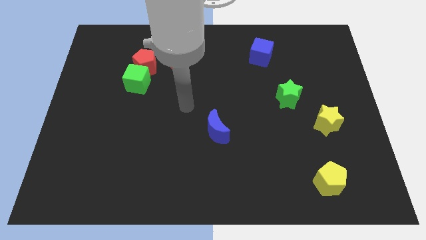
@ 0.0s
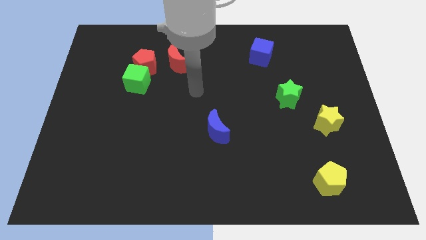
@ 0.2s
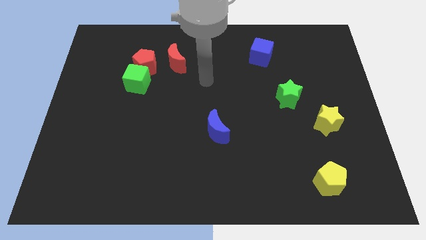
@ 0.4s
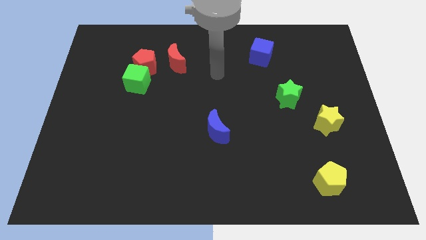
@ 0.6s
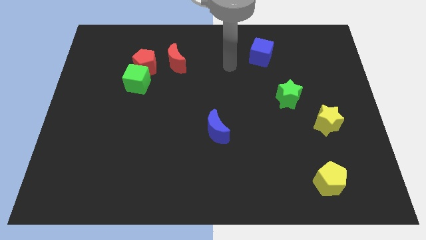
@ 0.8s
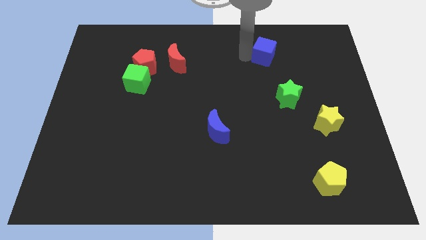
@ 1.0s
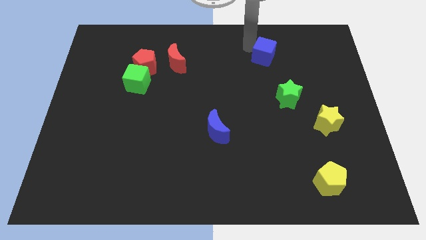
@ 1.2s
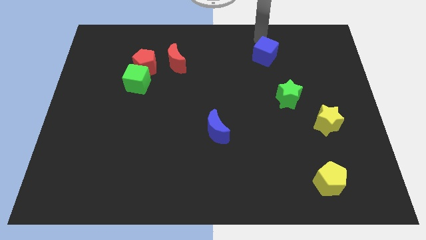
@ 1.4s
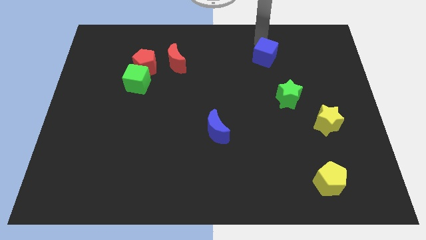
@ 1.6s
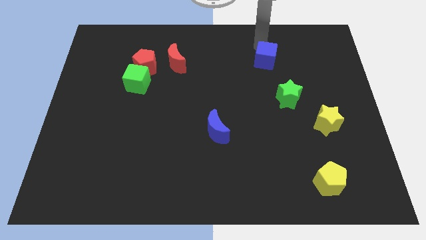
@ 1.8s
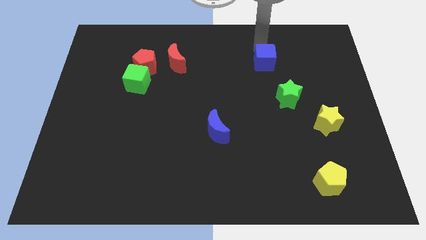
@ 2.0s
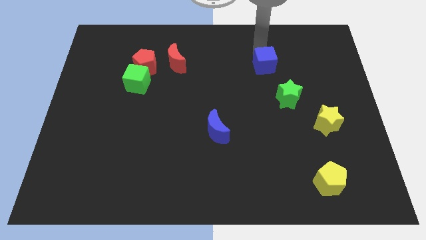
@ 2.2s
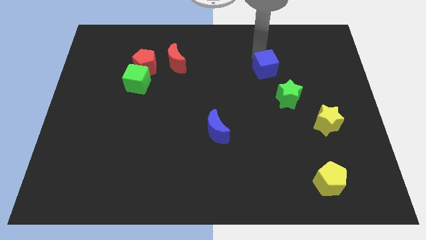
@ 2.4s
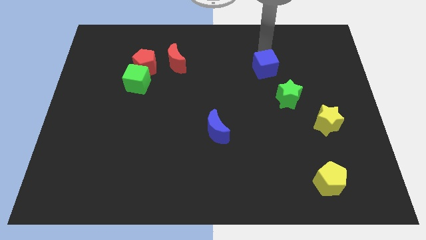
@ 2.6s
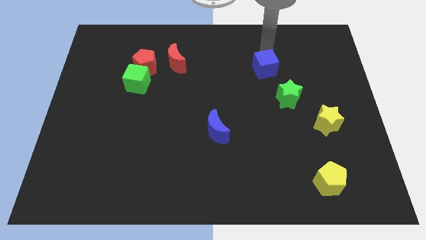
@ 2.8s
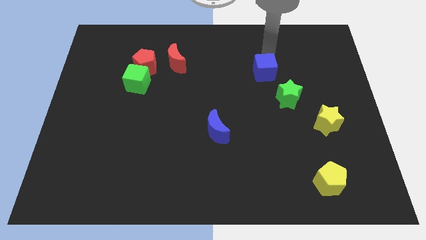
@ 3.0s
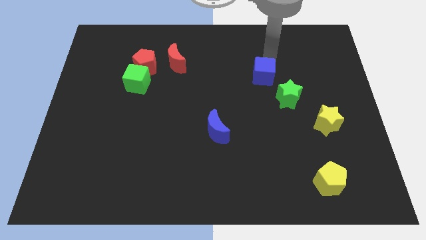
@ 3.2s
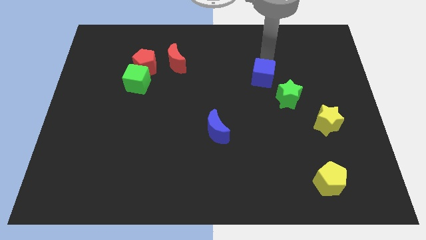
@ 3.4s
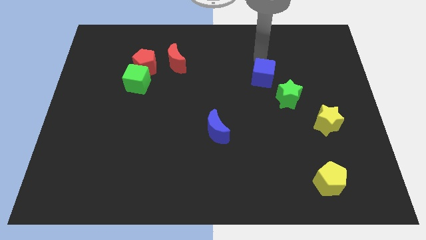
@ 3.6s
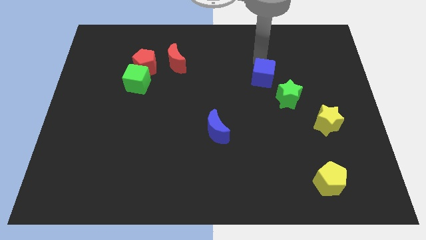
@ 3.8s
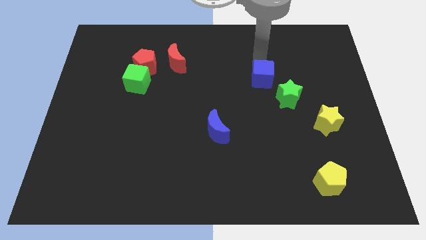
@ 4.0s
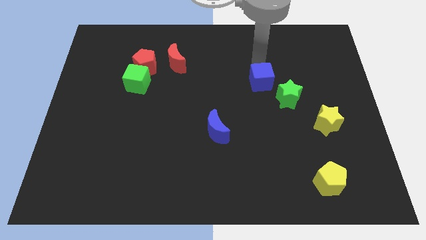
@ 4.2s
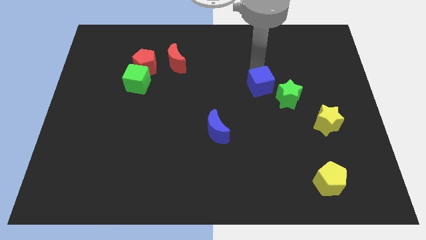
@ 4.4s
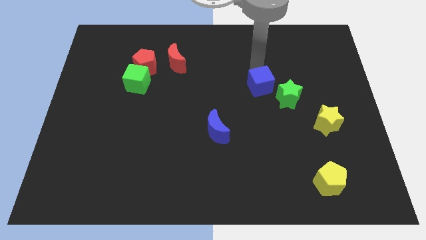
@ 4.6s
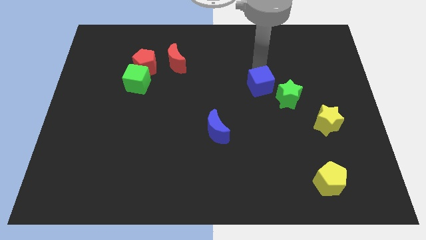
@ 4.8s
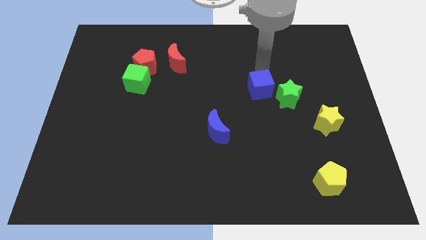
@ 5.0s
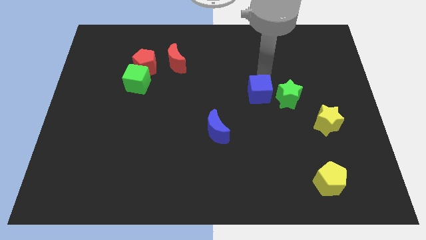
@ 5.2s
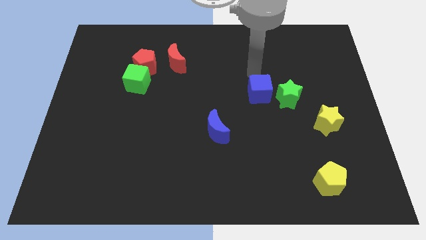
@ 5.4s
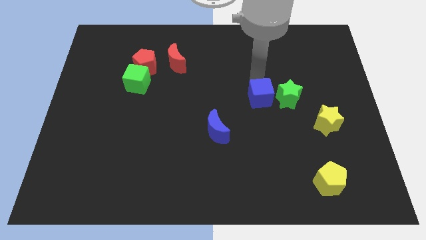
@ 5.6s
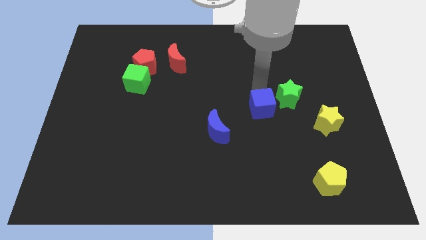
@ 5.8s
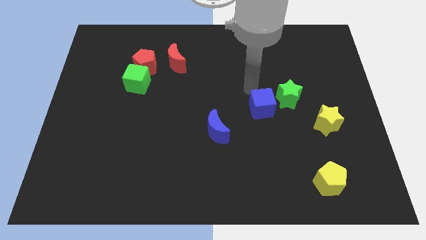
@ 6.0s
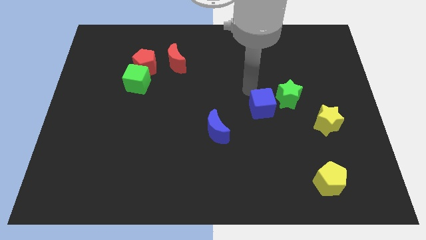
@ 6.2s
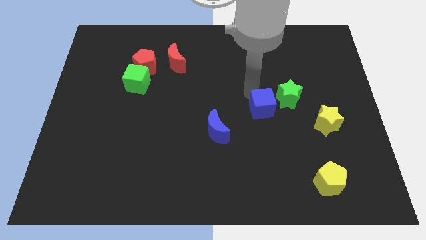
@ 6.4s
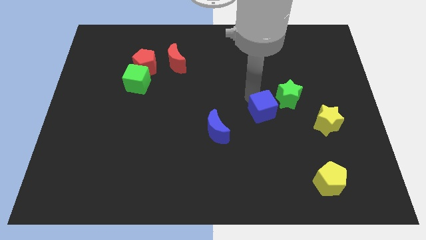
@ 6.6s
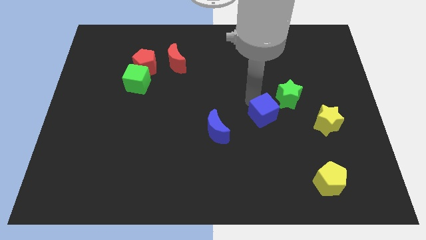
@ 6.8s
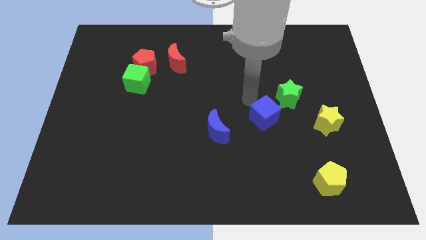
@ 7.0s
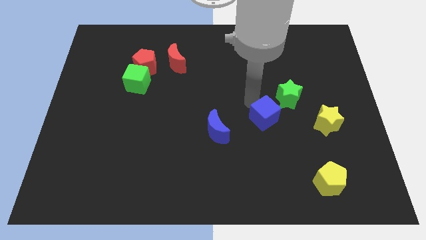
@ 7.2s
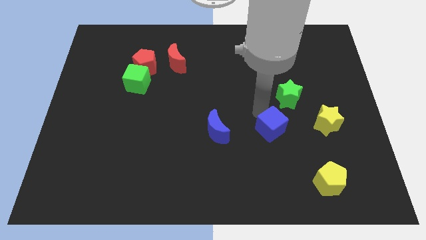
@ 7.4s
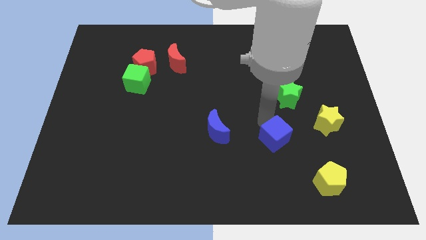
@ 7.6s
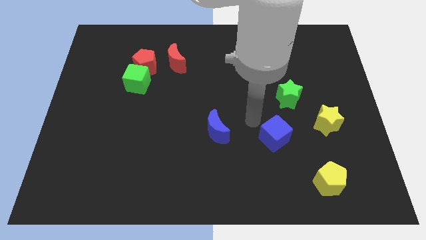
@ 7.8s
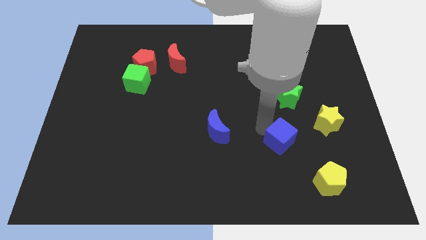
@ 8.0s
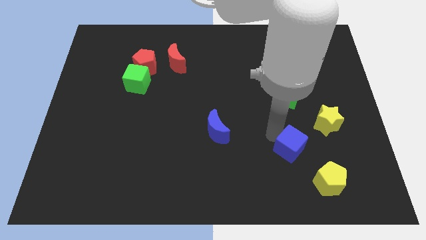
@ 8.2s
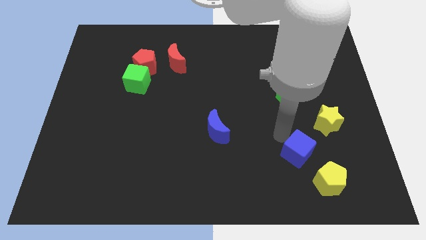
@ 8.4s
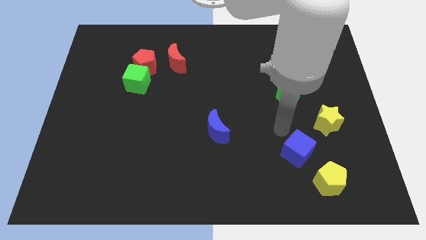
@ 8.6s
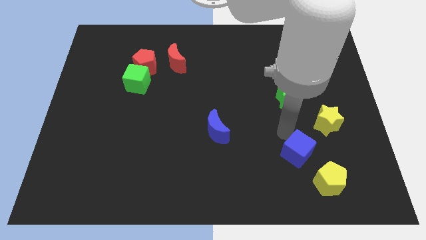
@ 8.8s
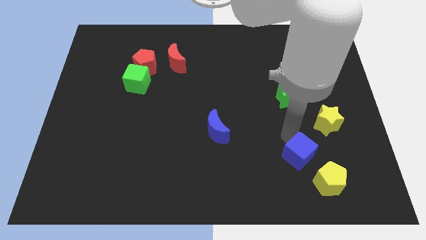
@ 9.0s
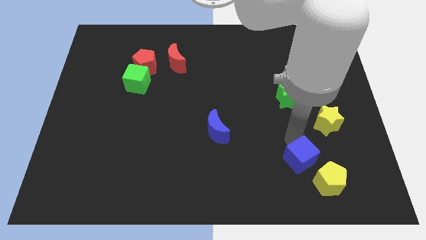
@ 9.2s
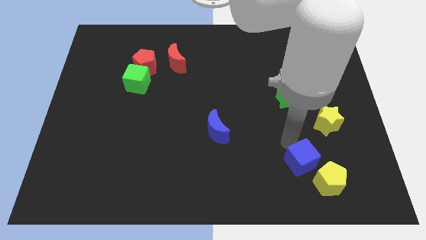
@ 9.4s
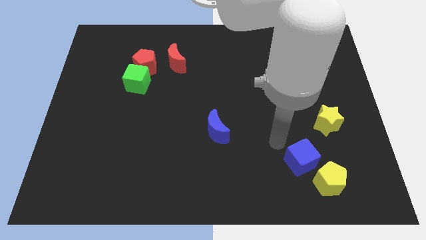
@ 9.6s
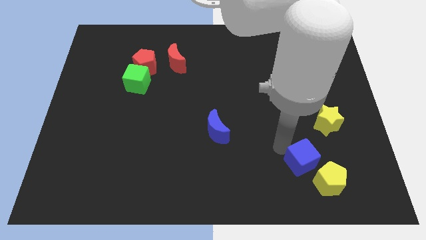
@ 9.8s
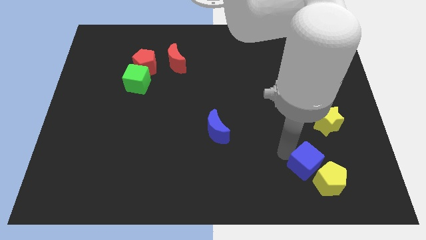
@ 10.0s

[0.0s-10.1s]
put the blue cube to the yellow pentagon

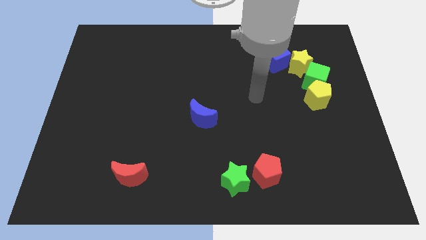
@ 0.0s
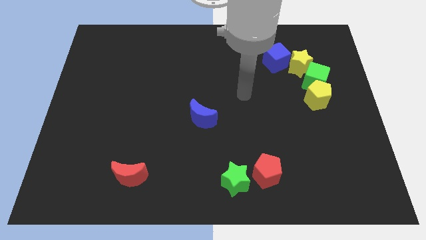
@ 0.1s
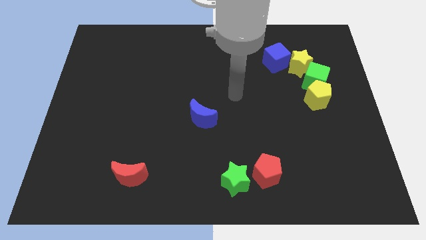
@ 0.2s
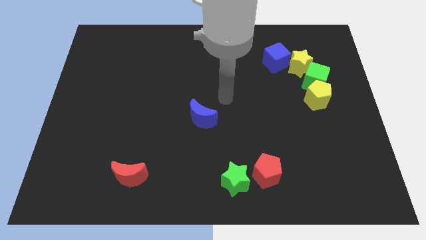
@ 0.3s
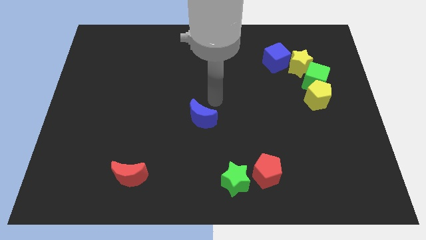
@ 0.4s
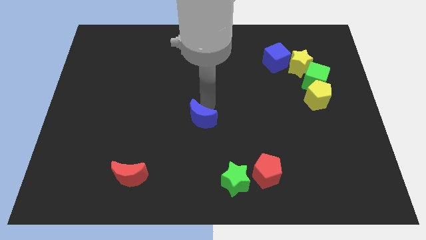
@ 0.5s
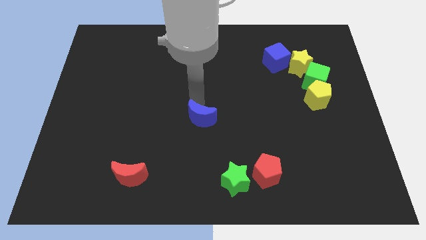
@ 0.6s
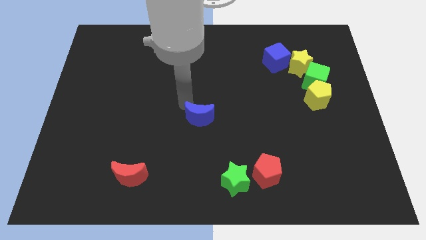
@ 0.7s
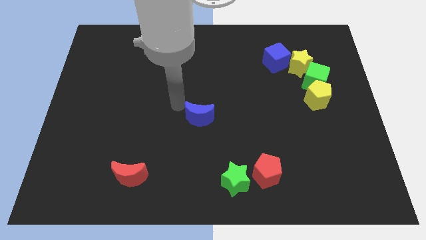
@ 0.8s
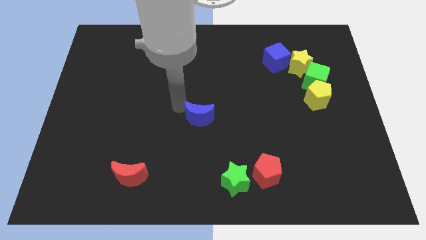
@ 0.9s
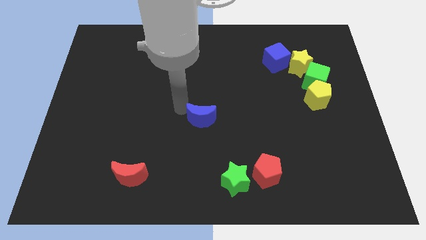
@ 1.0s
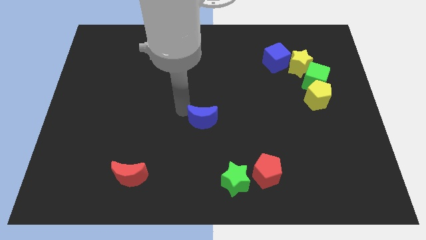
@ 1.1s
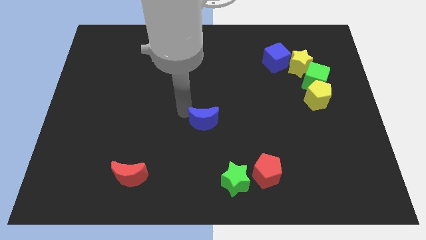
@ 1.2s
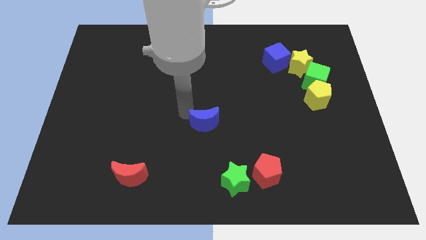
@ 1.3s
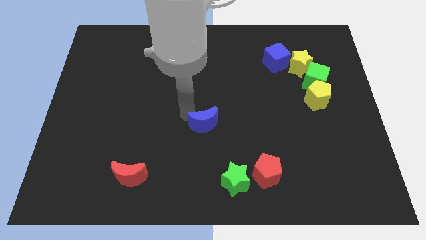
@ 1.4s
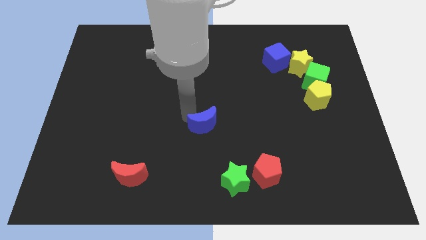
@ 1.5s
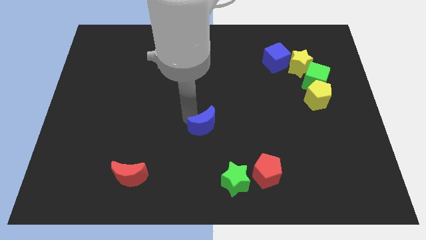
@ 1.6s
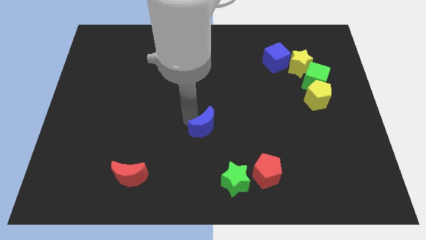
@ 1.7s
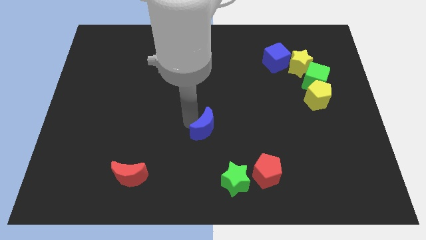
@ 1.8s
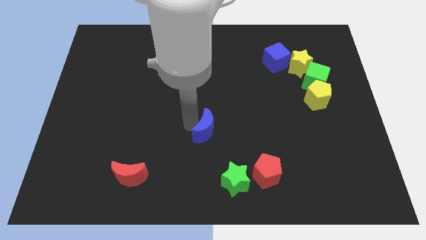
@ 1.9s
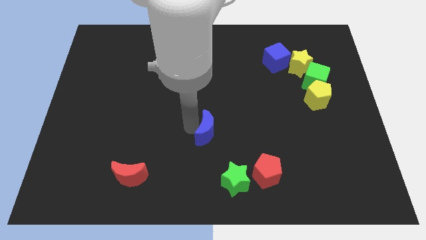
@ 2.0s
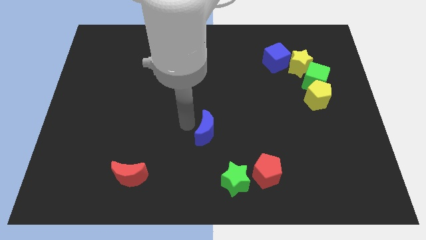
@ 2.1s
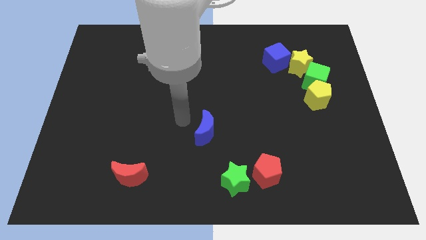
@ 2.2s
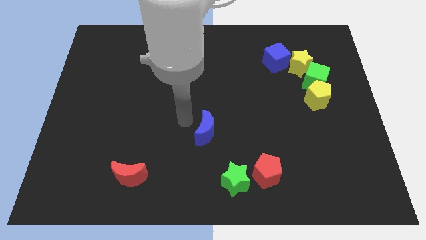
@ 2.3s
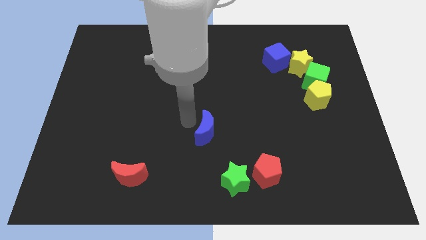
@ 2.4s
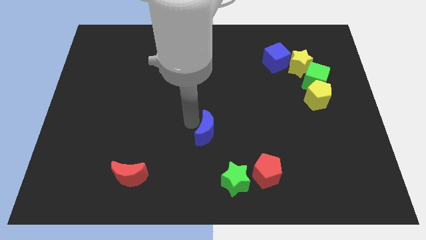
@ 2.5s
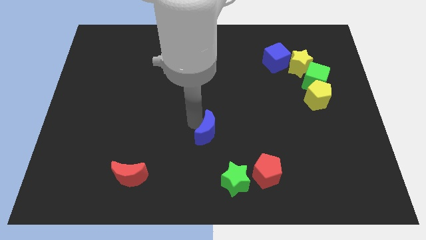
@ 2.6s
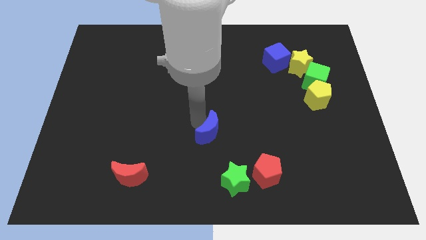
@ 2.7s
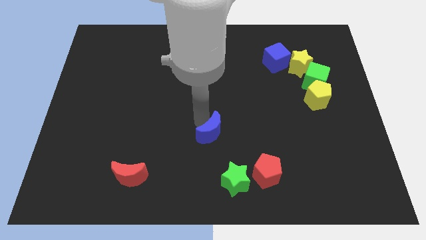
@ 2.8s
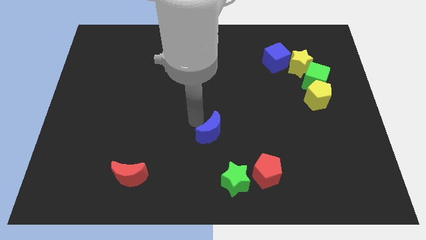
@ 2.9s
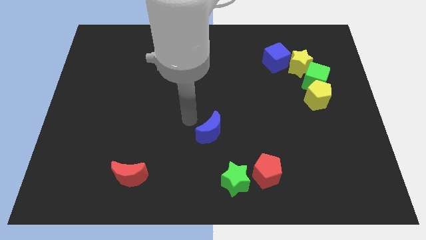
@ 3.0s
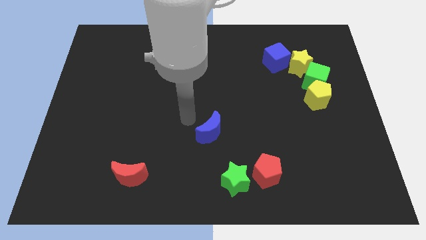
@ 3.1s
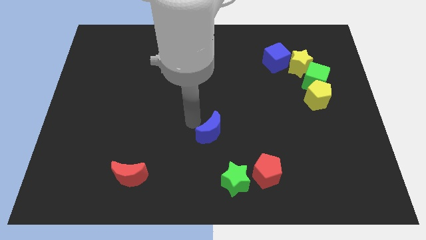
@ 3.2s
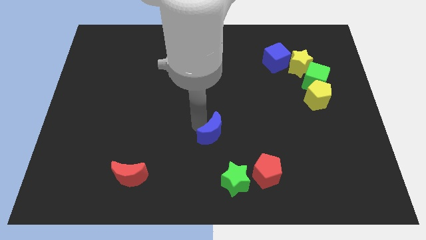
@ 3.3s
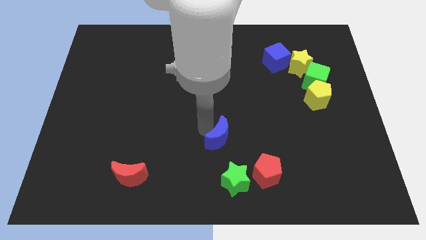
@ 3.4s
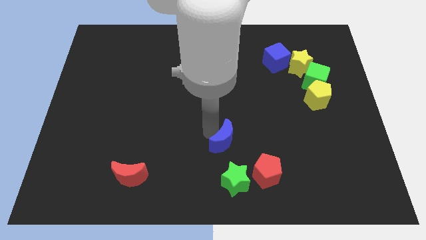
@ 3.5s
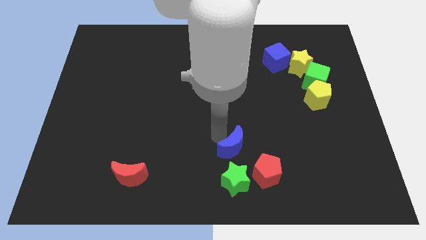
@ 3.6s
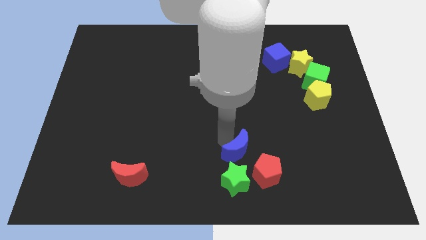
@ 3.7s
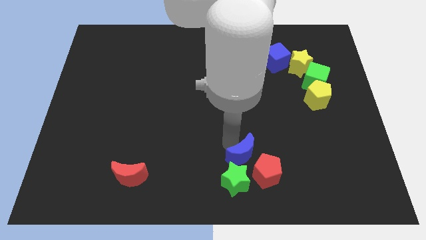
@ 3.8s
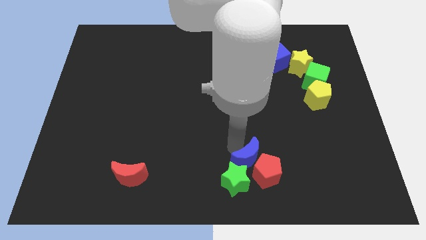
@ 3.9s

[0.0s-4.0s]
move the blue moon close to the red pentagon
